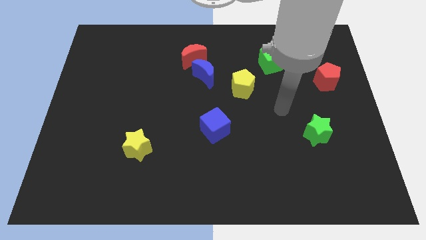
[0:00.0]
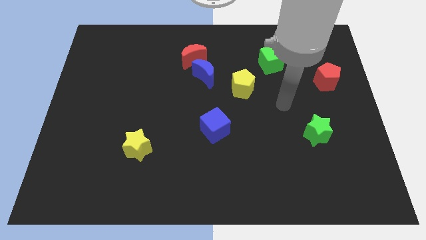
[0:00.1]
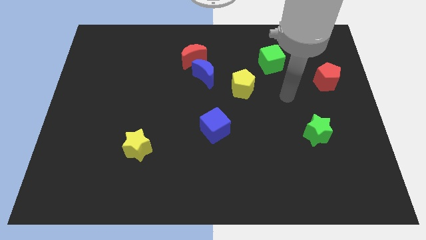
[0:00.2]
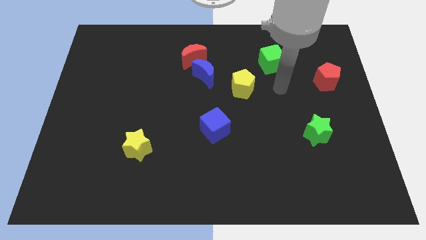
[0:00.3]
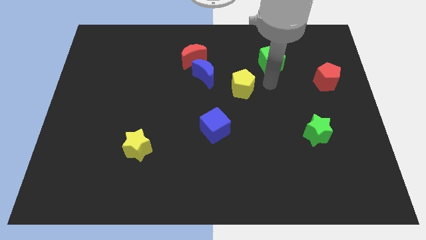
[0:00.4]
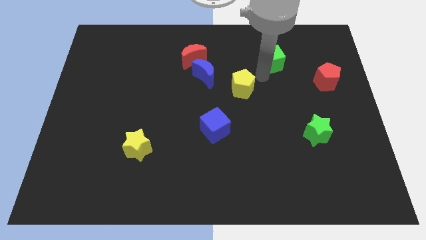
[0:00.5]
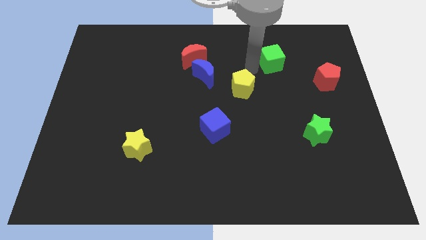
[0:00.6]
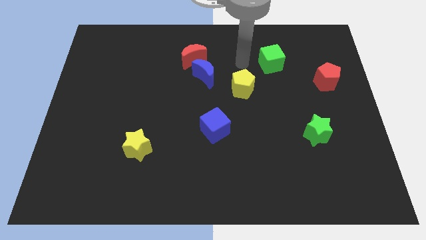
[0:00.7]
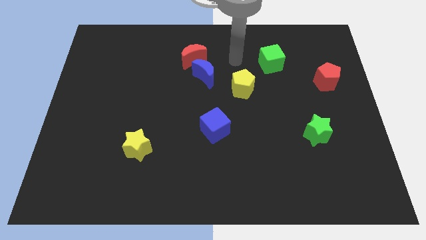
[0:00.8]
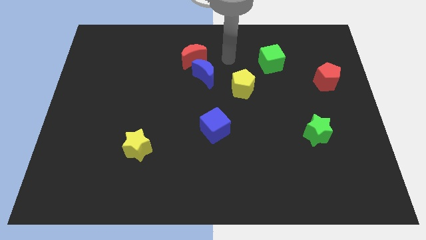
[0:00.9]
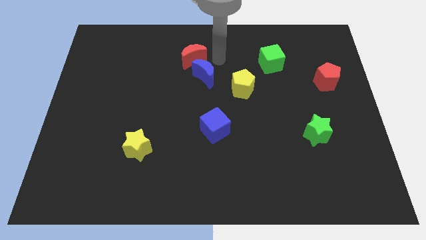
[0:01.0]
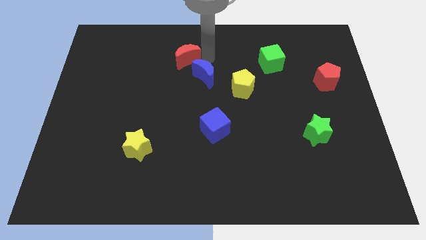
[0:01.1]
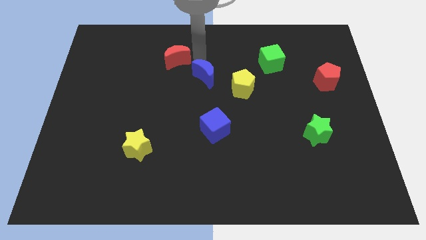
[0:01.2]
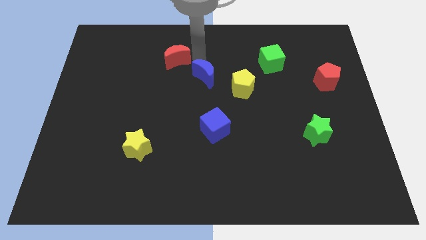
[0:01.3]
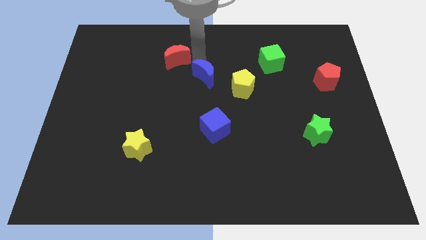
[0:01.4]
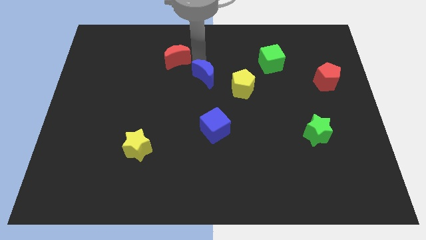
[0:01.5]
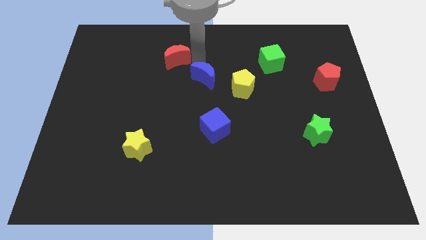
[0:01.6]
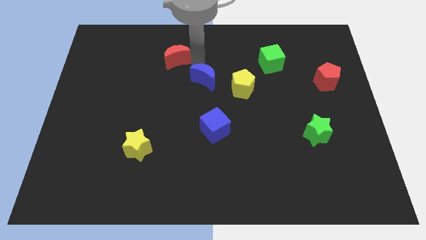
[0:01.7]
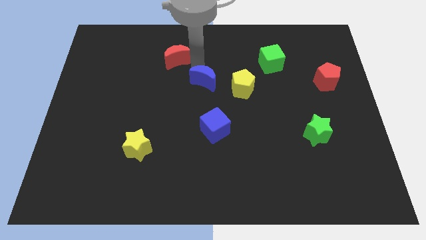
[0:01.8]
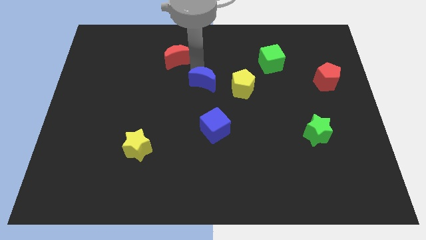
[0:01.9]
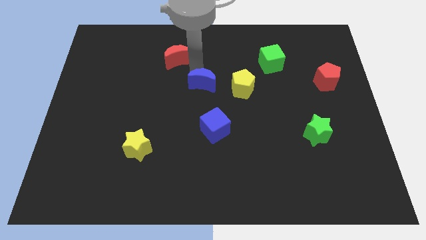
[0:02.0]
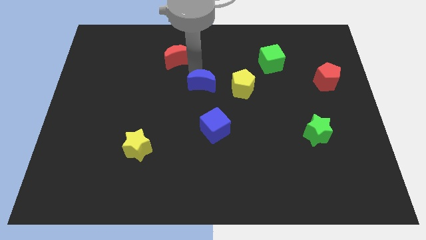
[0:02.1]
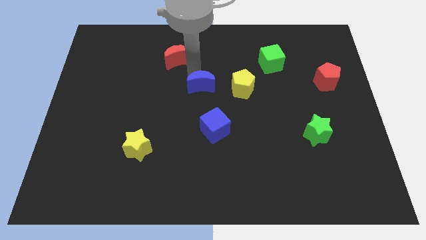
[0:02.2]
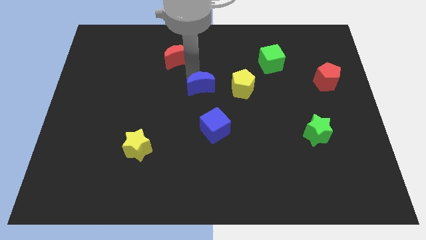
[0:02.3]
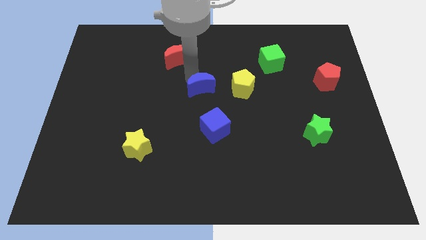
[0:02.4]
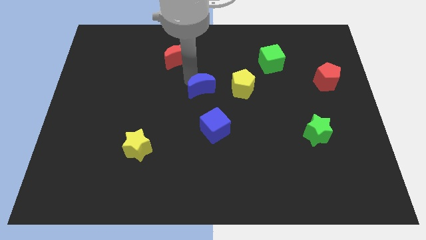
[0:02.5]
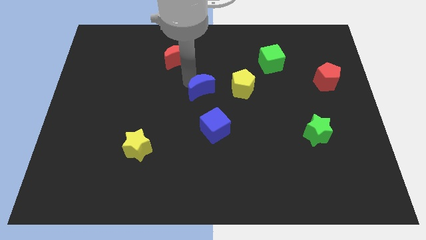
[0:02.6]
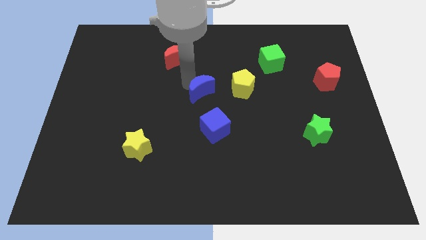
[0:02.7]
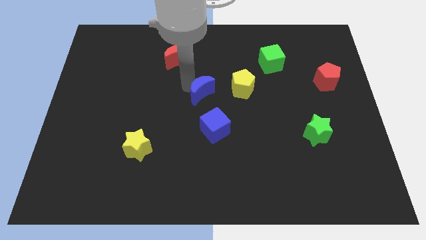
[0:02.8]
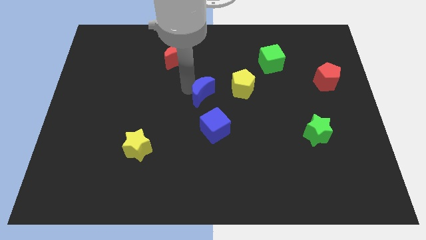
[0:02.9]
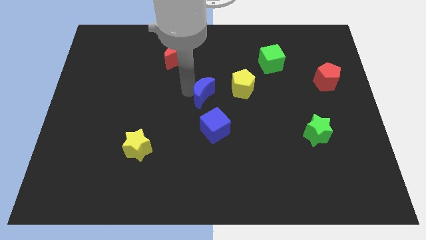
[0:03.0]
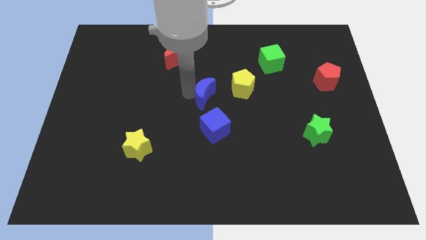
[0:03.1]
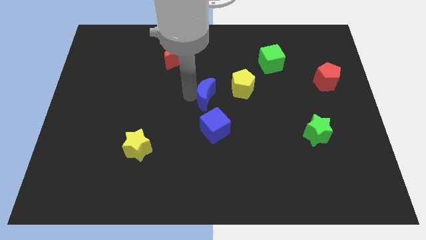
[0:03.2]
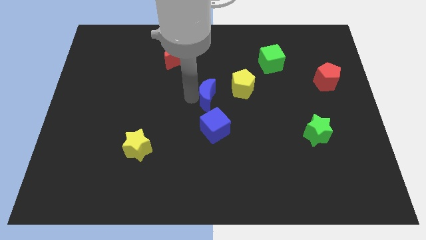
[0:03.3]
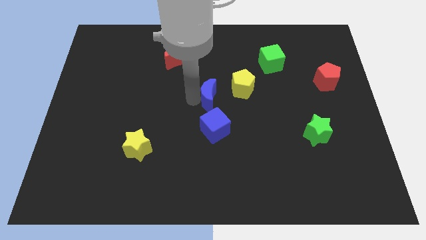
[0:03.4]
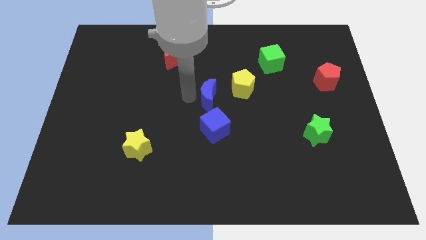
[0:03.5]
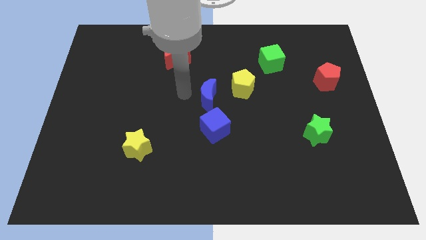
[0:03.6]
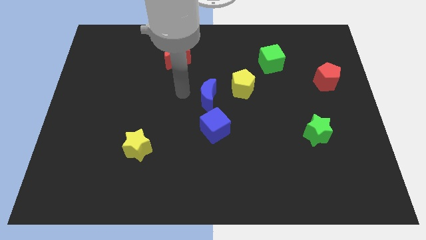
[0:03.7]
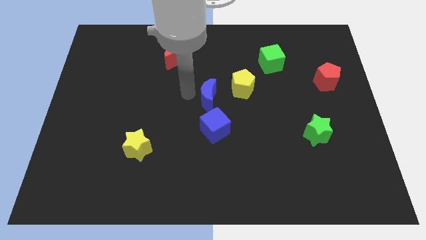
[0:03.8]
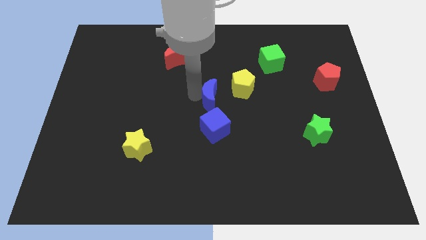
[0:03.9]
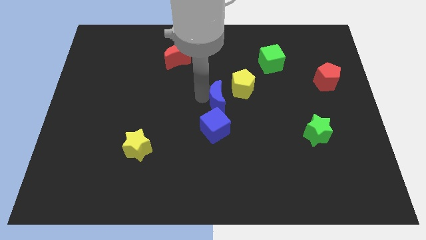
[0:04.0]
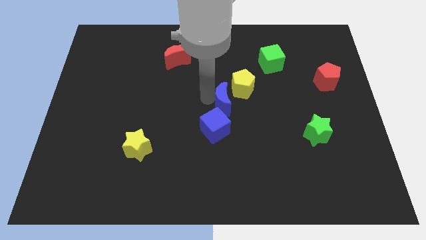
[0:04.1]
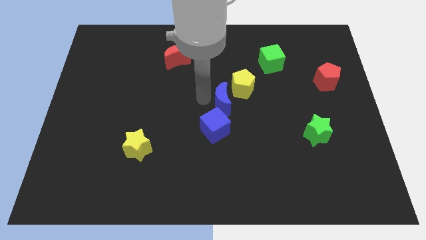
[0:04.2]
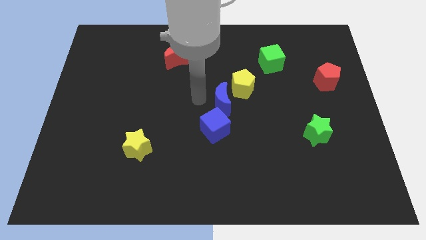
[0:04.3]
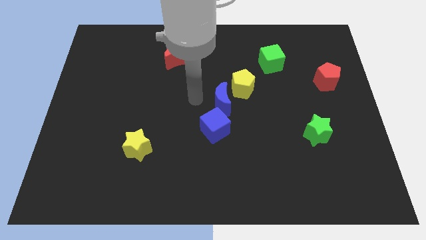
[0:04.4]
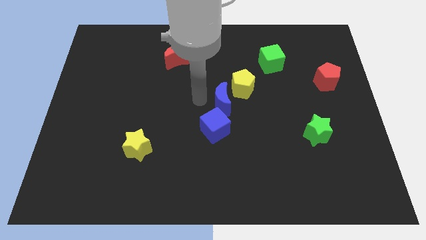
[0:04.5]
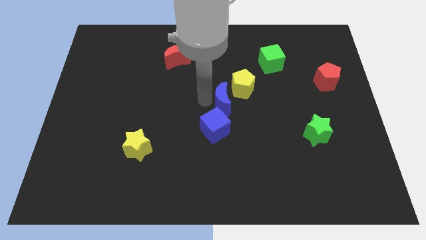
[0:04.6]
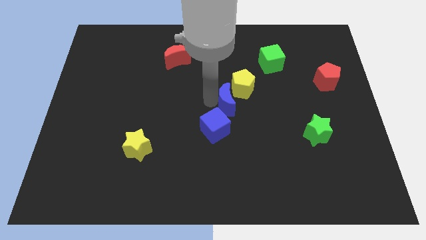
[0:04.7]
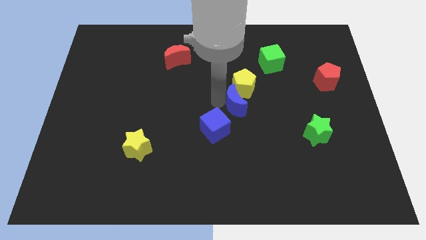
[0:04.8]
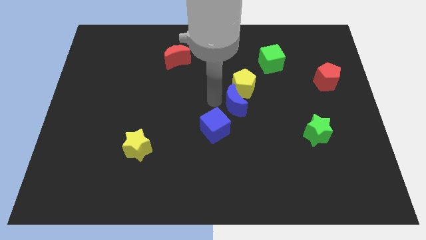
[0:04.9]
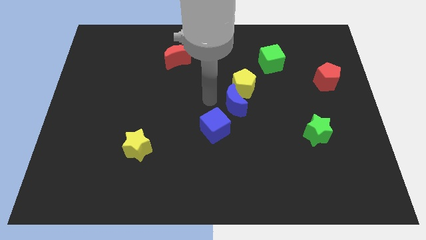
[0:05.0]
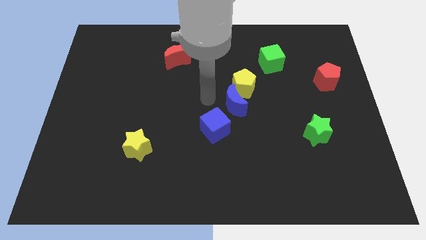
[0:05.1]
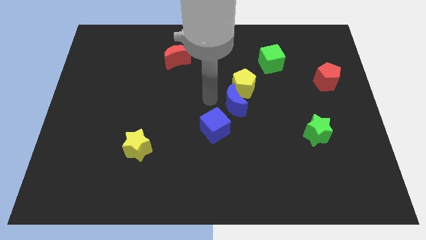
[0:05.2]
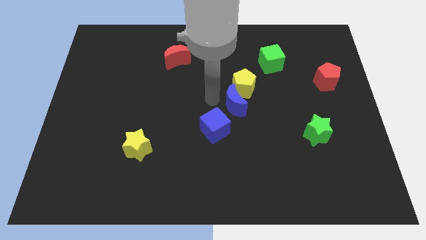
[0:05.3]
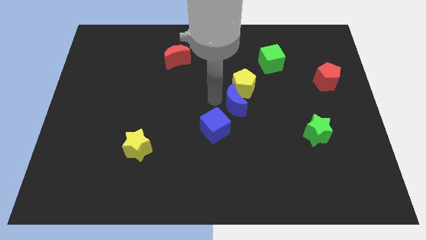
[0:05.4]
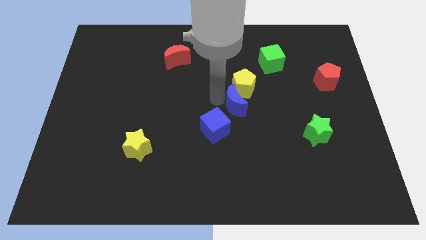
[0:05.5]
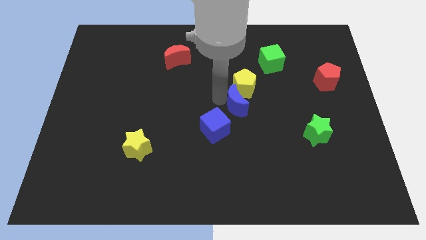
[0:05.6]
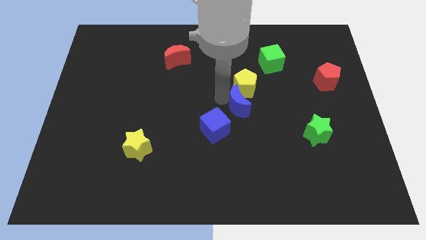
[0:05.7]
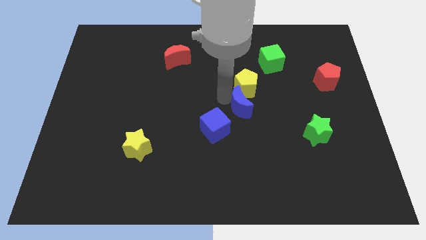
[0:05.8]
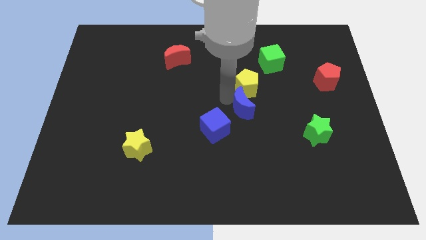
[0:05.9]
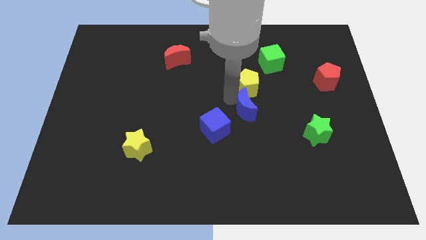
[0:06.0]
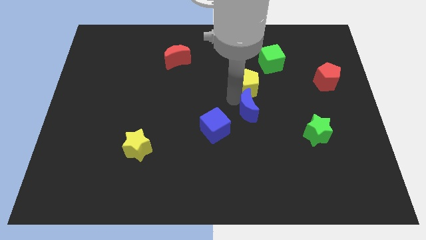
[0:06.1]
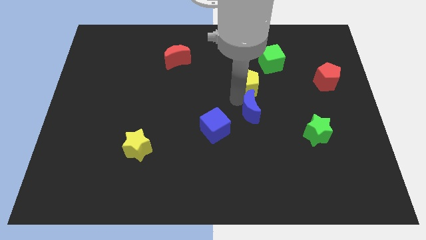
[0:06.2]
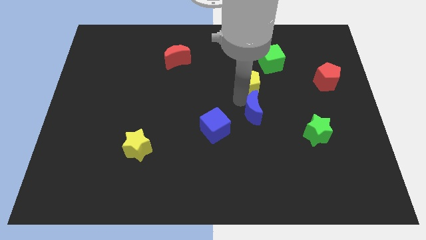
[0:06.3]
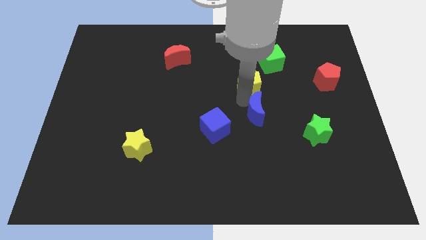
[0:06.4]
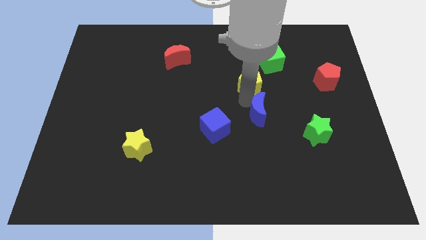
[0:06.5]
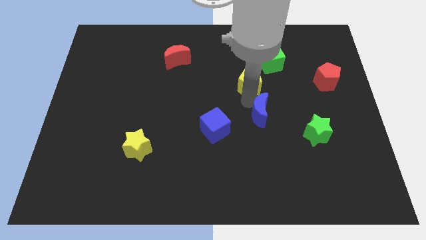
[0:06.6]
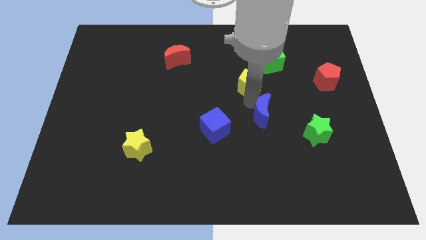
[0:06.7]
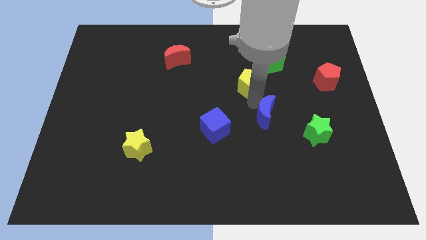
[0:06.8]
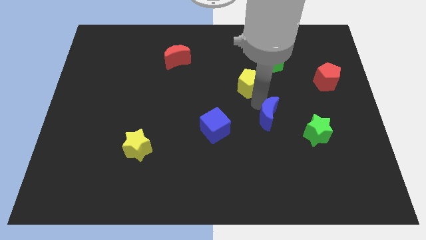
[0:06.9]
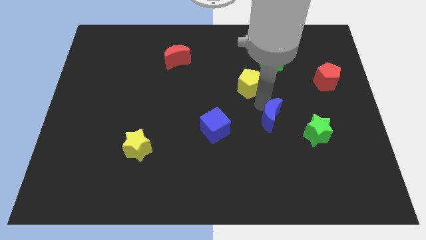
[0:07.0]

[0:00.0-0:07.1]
move the blue moon diagonally down and to the right

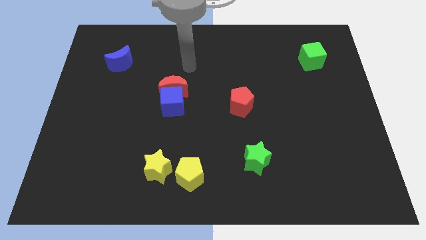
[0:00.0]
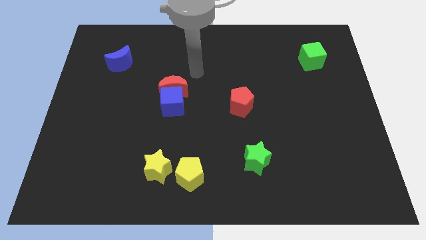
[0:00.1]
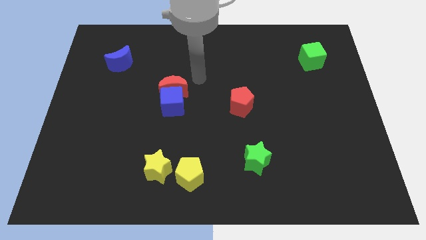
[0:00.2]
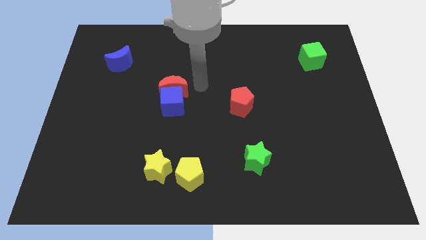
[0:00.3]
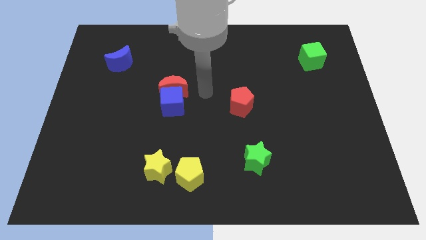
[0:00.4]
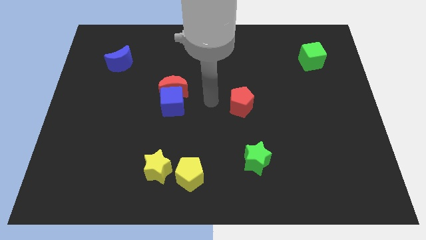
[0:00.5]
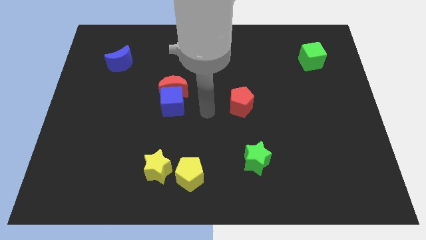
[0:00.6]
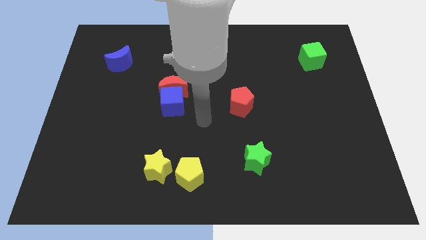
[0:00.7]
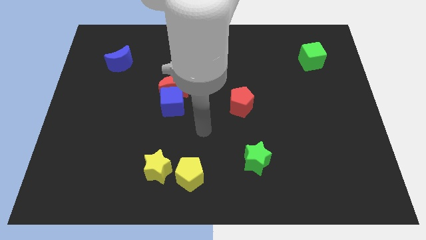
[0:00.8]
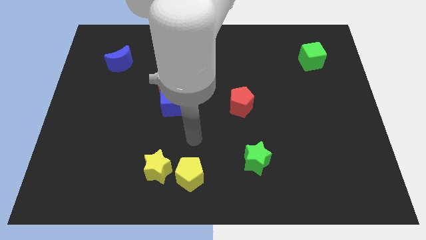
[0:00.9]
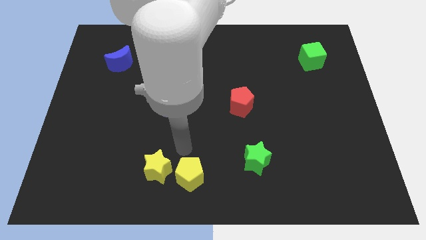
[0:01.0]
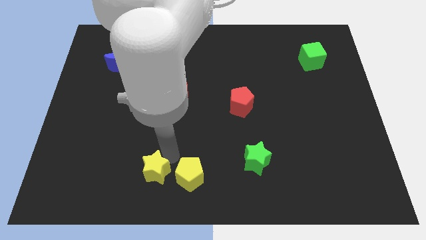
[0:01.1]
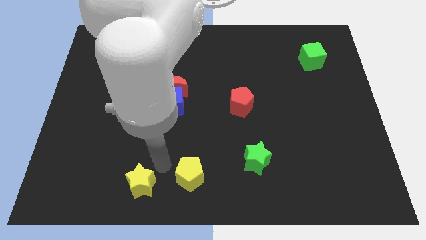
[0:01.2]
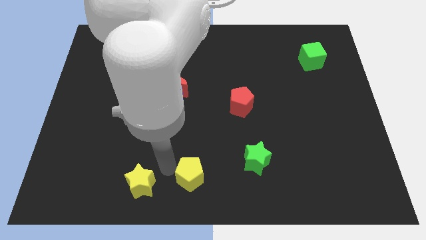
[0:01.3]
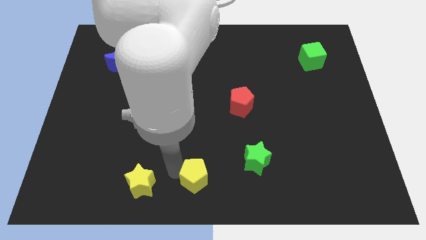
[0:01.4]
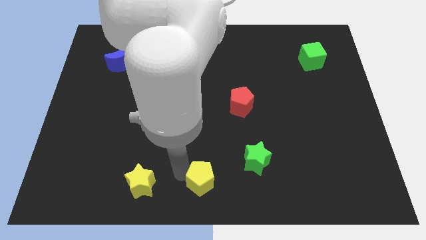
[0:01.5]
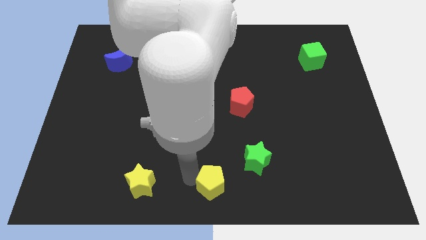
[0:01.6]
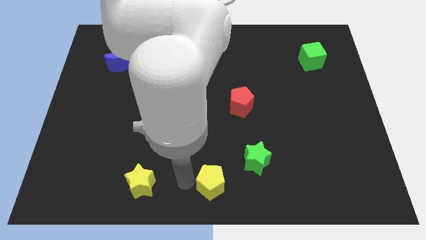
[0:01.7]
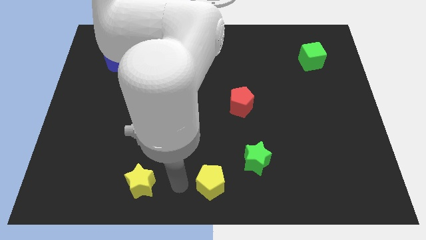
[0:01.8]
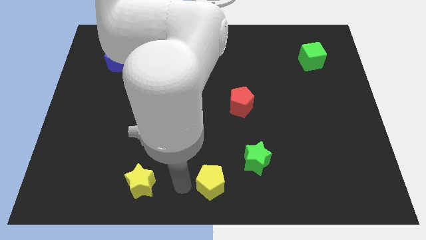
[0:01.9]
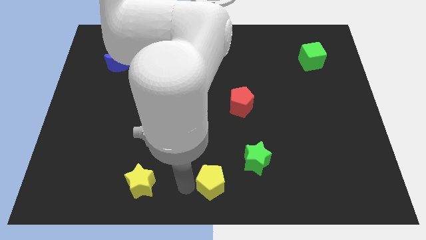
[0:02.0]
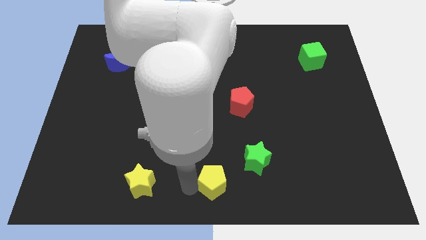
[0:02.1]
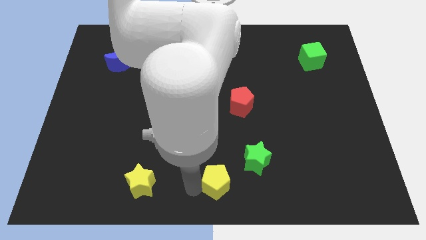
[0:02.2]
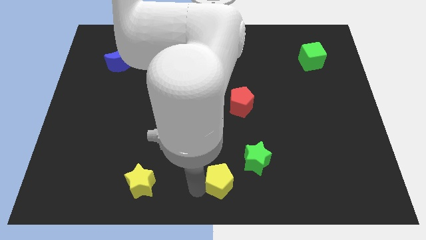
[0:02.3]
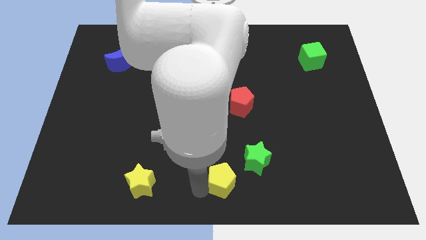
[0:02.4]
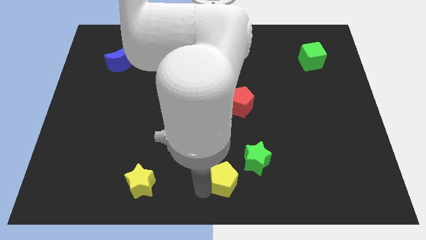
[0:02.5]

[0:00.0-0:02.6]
slide the yellow pentagon a little right
